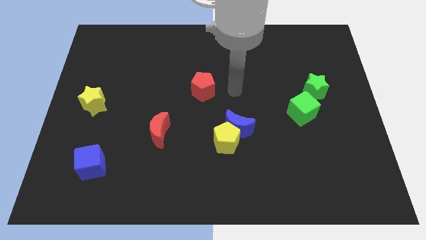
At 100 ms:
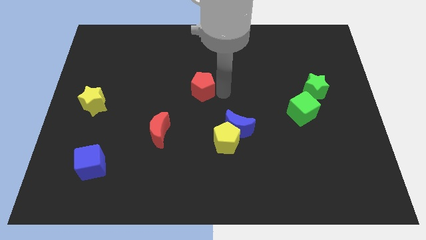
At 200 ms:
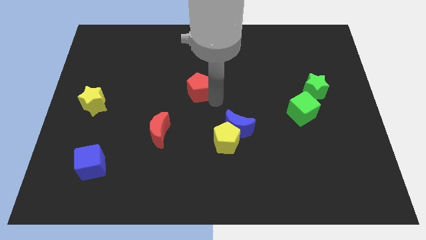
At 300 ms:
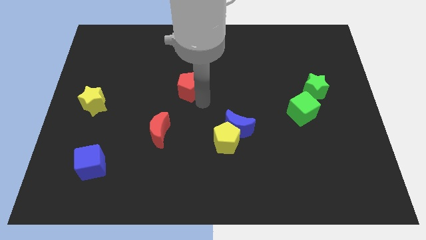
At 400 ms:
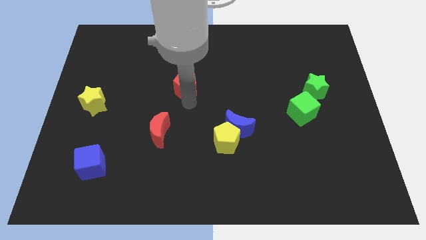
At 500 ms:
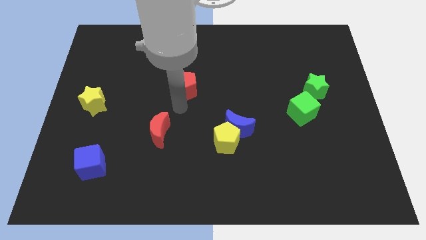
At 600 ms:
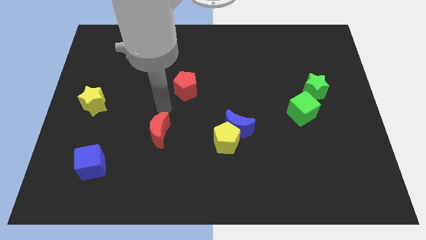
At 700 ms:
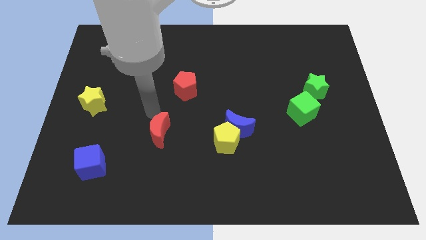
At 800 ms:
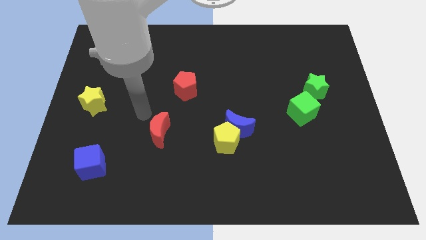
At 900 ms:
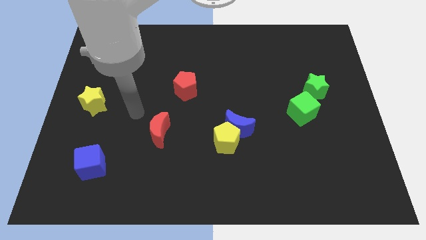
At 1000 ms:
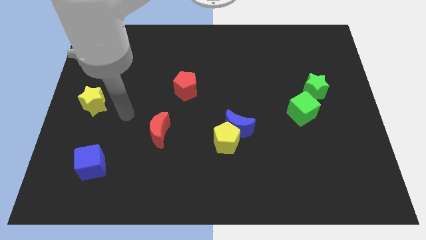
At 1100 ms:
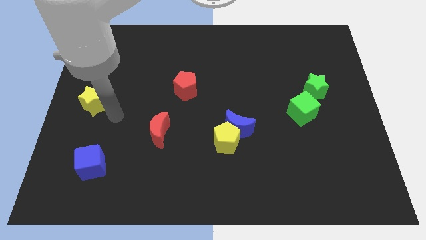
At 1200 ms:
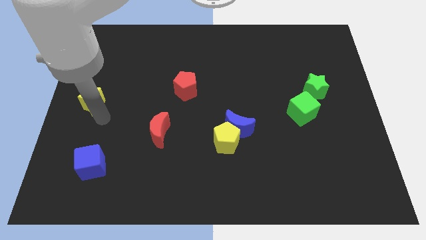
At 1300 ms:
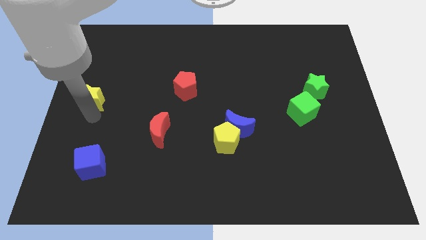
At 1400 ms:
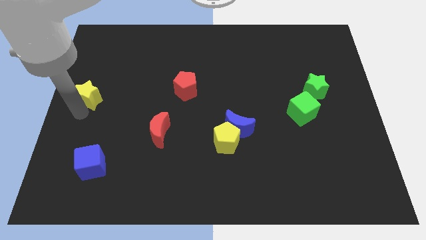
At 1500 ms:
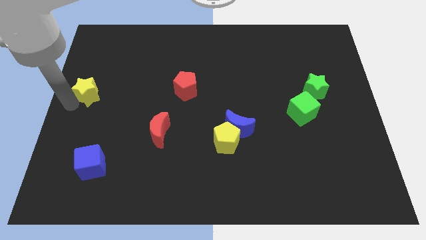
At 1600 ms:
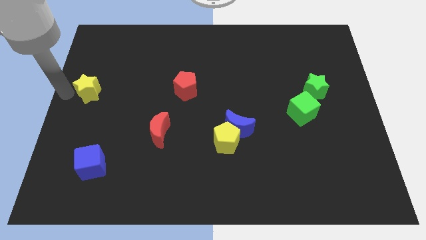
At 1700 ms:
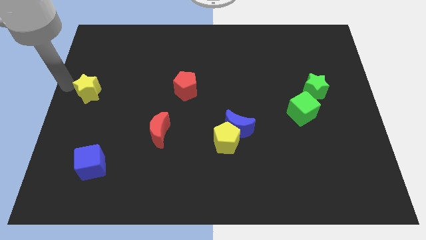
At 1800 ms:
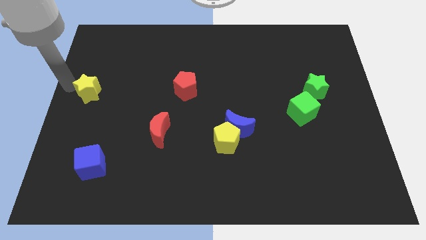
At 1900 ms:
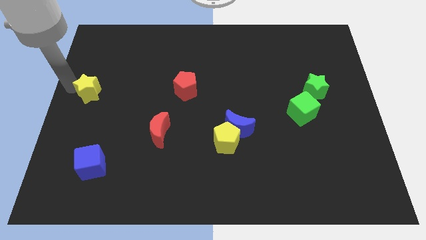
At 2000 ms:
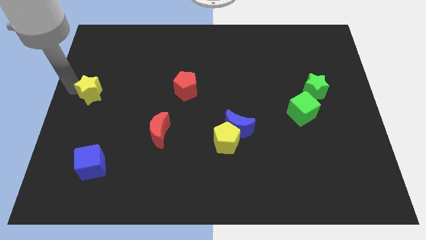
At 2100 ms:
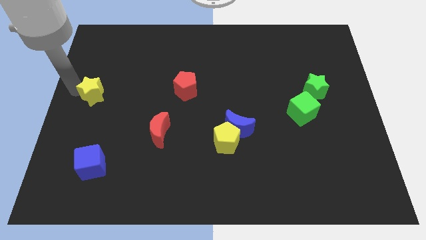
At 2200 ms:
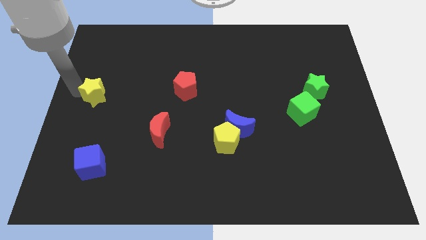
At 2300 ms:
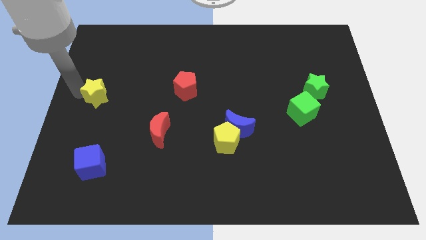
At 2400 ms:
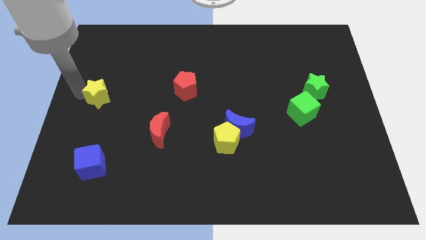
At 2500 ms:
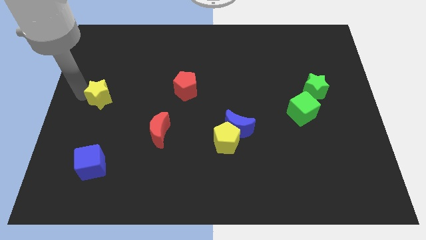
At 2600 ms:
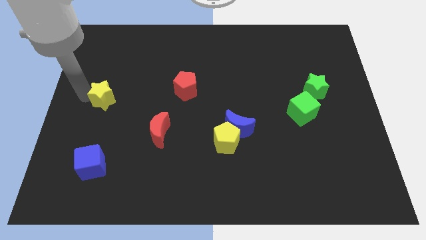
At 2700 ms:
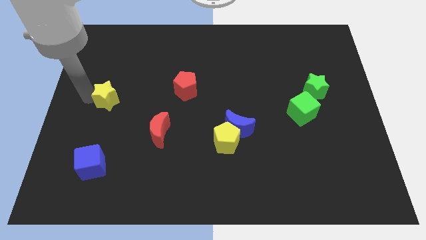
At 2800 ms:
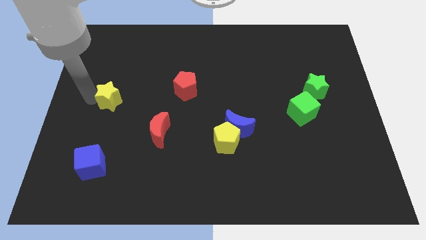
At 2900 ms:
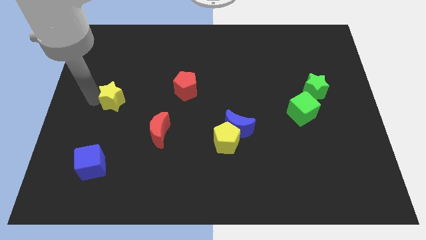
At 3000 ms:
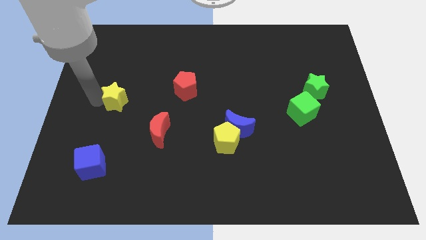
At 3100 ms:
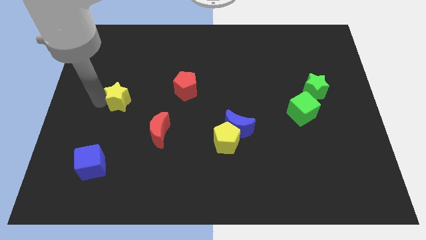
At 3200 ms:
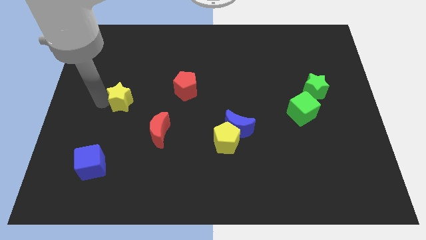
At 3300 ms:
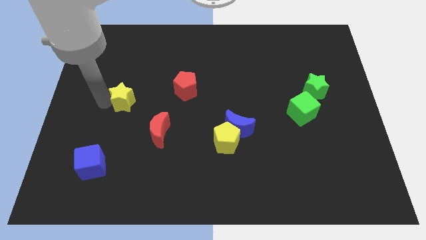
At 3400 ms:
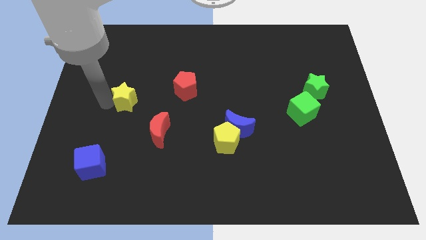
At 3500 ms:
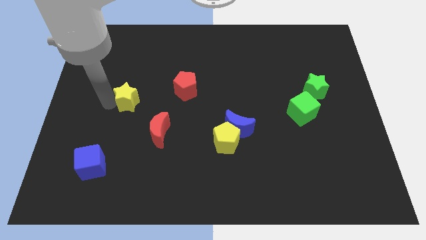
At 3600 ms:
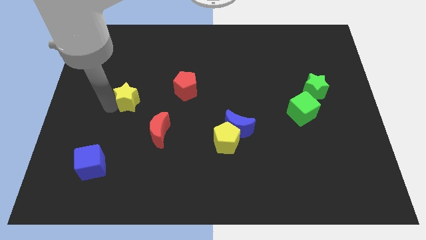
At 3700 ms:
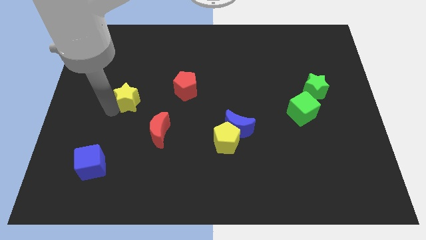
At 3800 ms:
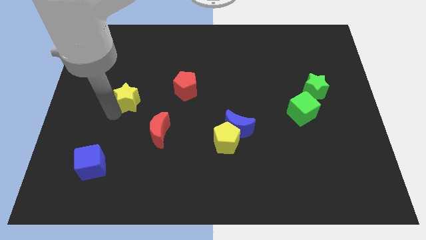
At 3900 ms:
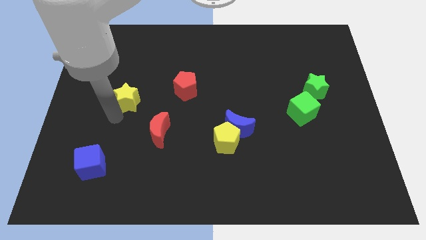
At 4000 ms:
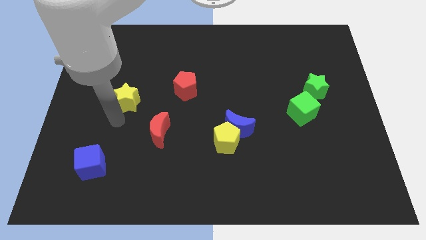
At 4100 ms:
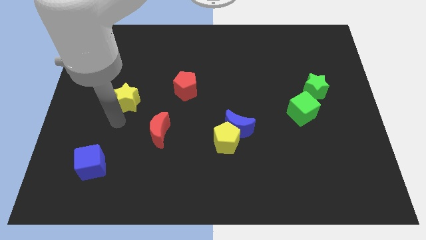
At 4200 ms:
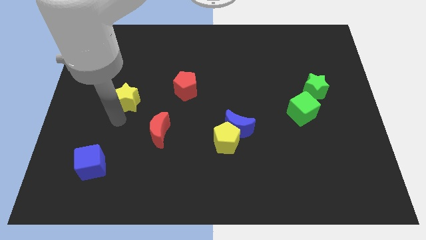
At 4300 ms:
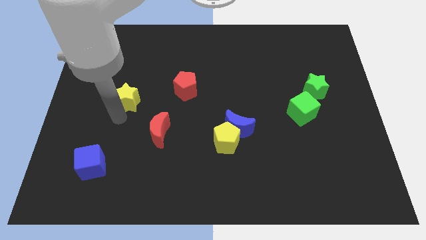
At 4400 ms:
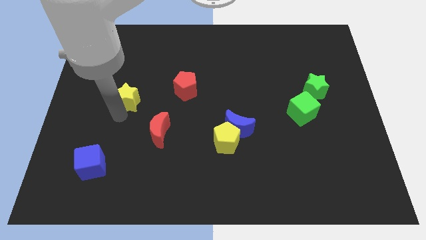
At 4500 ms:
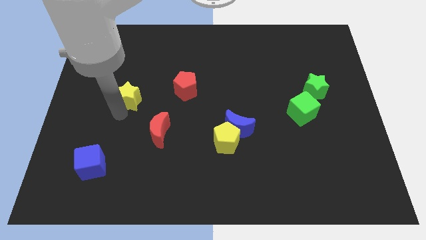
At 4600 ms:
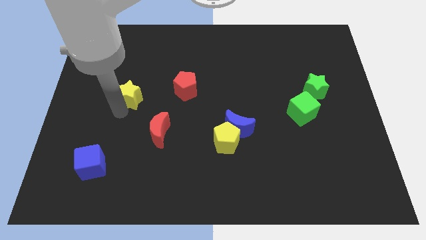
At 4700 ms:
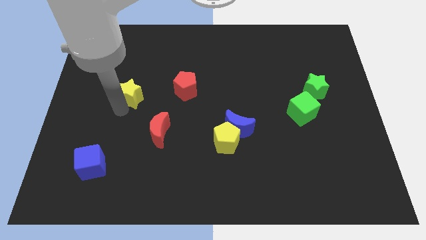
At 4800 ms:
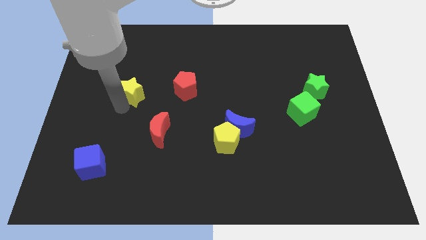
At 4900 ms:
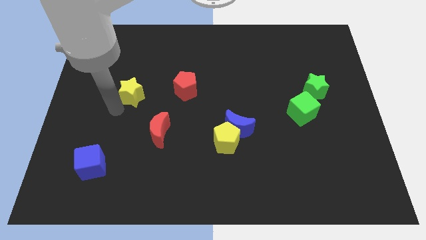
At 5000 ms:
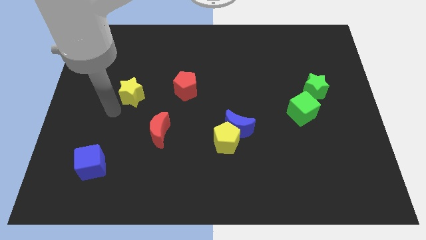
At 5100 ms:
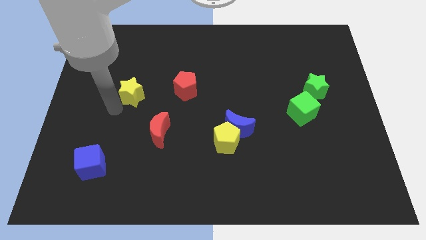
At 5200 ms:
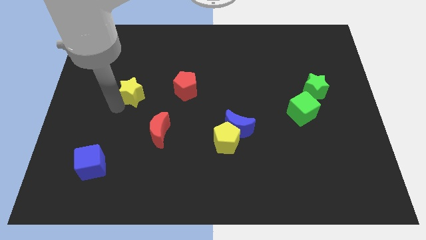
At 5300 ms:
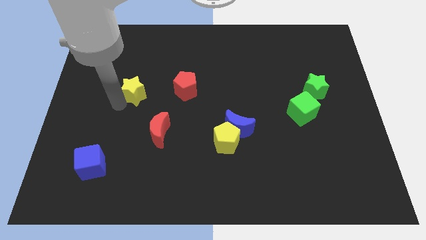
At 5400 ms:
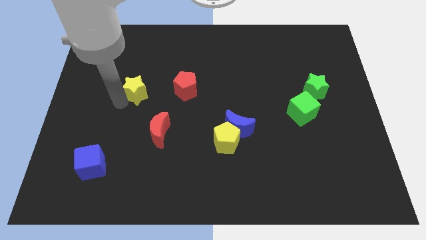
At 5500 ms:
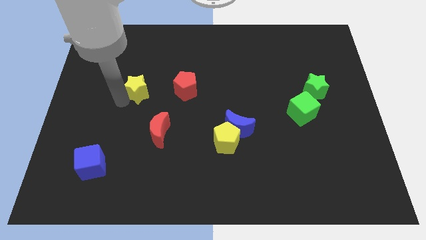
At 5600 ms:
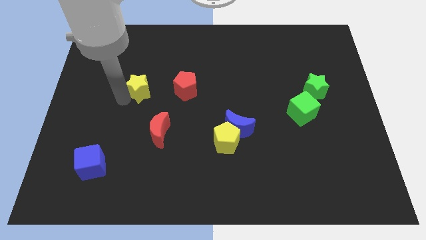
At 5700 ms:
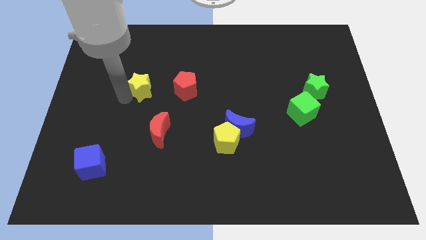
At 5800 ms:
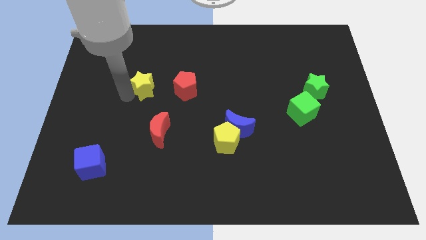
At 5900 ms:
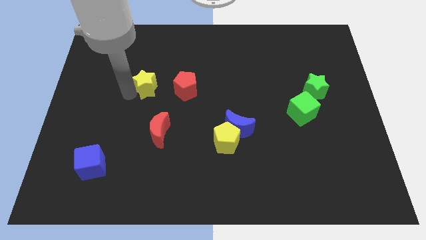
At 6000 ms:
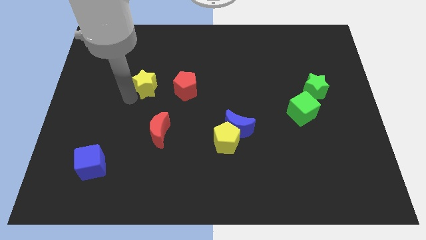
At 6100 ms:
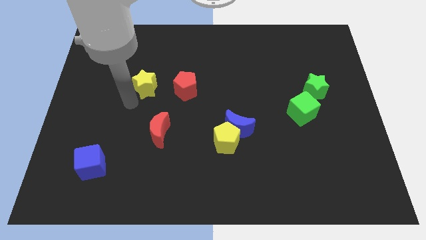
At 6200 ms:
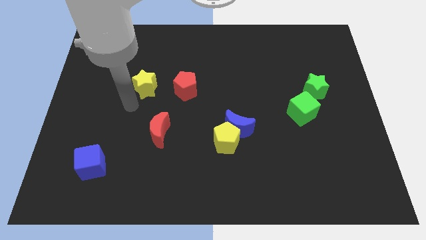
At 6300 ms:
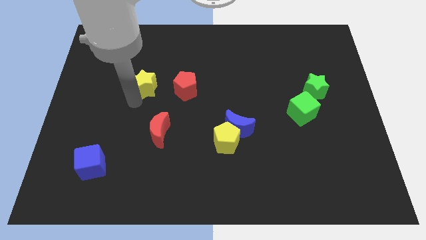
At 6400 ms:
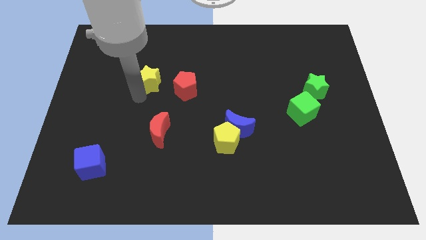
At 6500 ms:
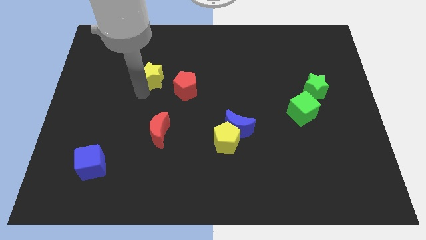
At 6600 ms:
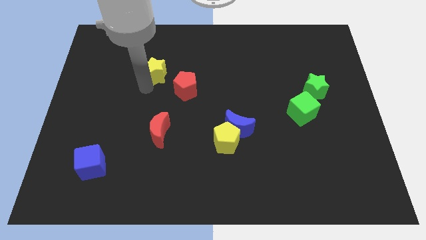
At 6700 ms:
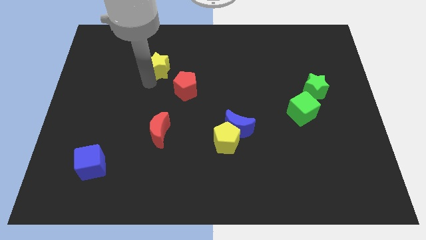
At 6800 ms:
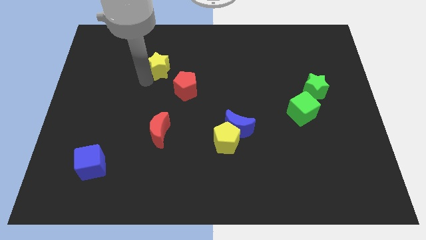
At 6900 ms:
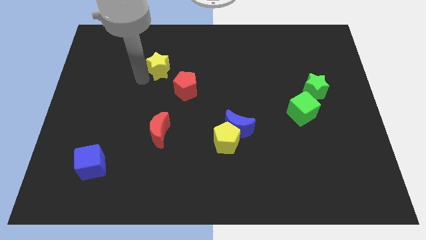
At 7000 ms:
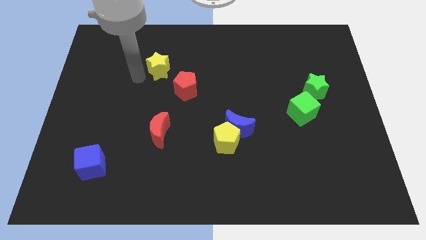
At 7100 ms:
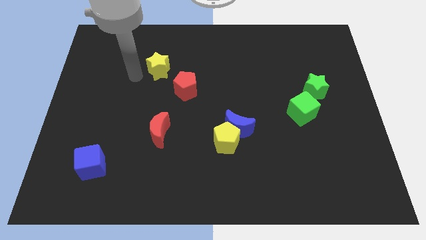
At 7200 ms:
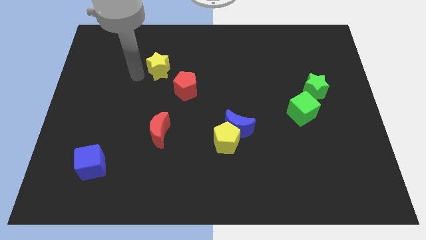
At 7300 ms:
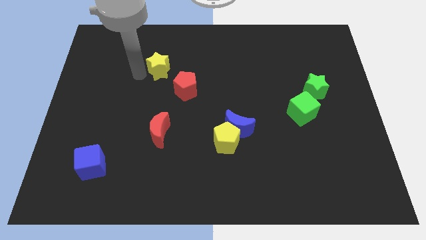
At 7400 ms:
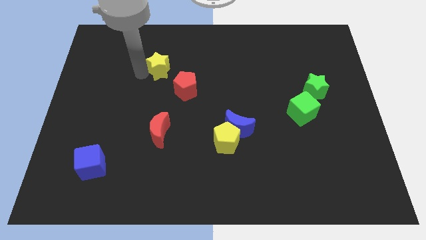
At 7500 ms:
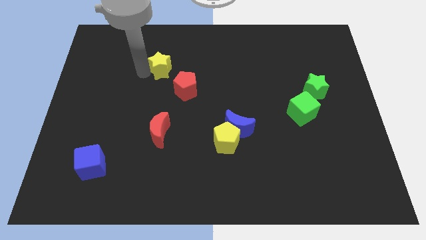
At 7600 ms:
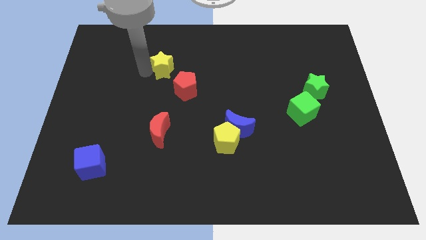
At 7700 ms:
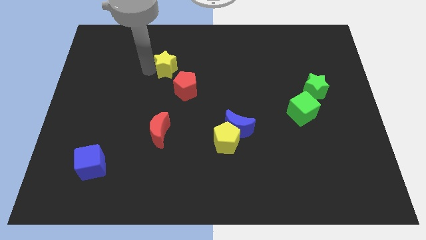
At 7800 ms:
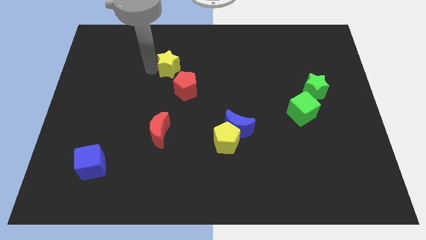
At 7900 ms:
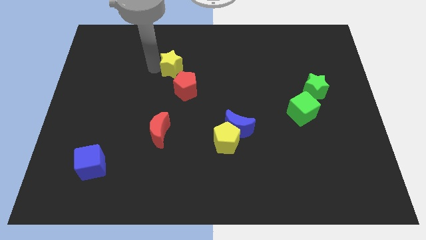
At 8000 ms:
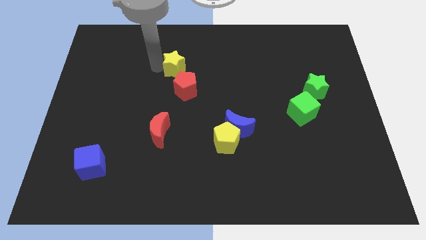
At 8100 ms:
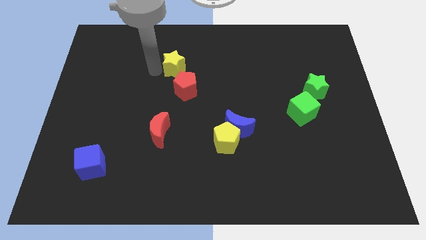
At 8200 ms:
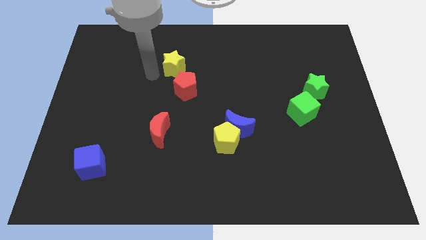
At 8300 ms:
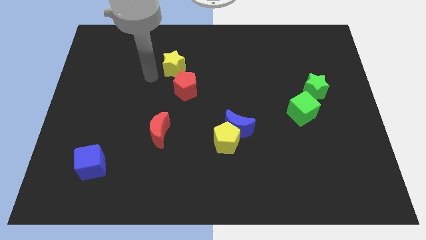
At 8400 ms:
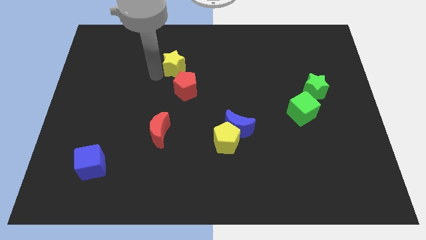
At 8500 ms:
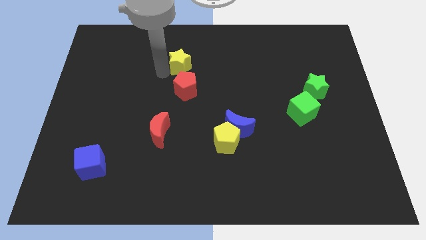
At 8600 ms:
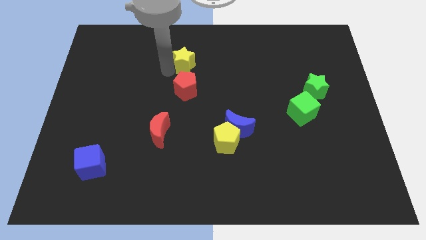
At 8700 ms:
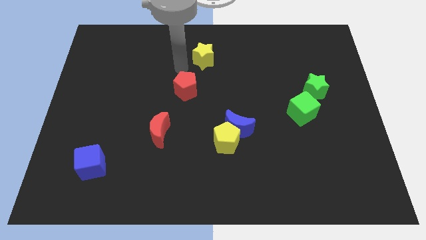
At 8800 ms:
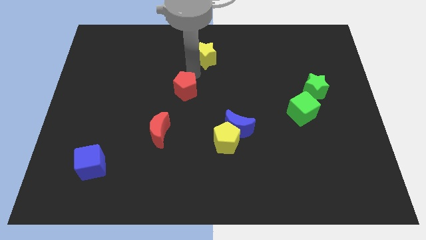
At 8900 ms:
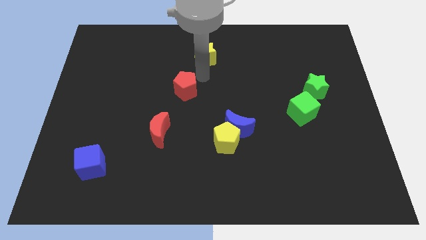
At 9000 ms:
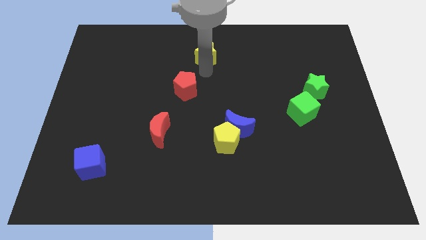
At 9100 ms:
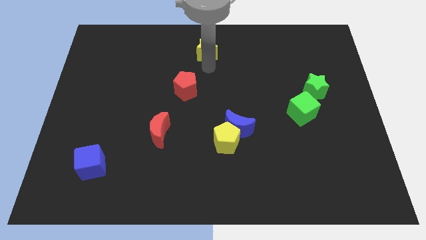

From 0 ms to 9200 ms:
push the yellow star to the top side
